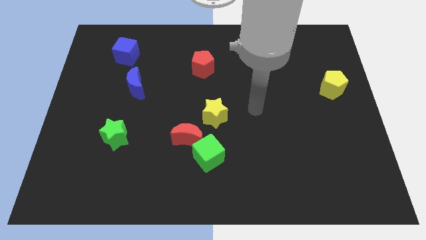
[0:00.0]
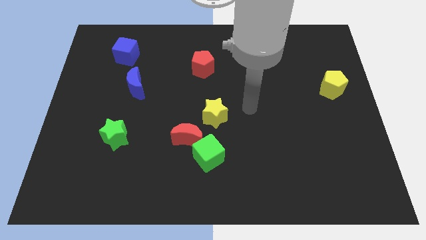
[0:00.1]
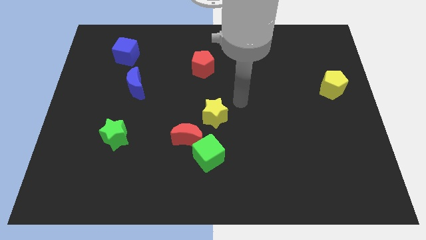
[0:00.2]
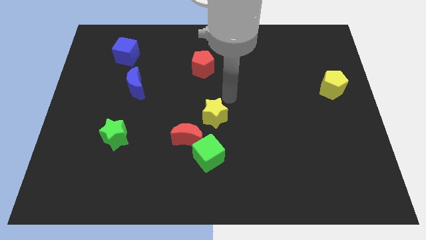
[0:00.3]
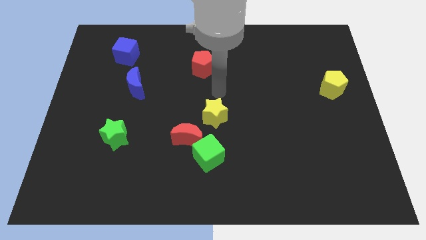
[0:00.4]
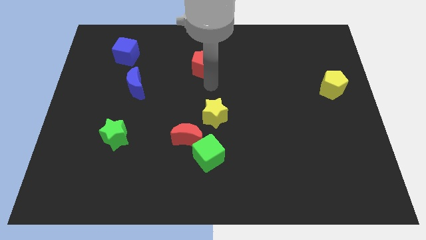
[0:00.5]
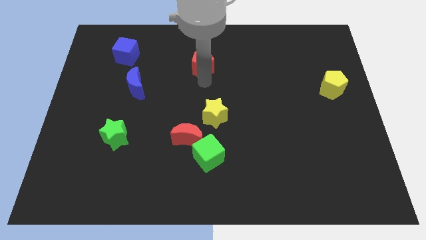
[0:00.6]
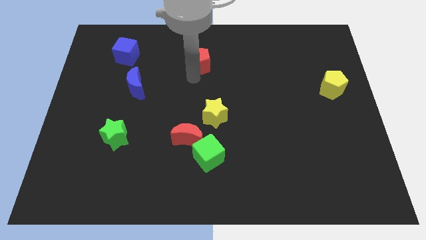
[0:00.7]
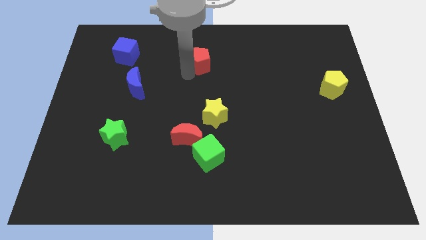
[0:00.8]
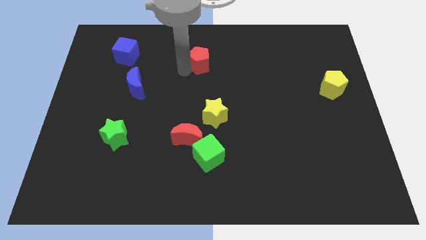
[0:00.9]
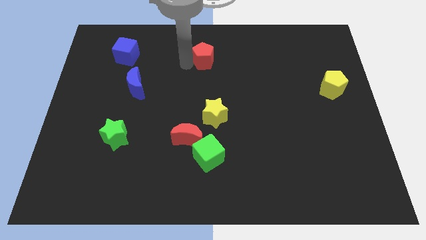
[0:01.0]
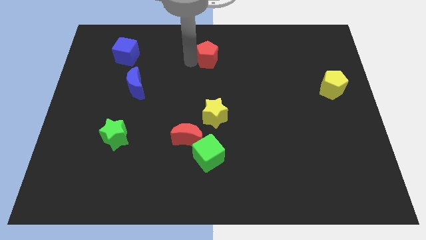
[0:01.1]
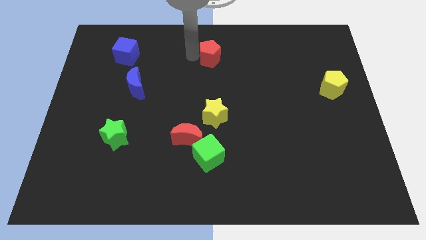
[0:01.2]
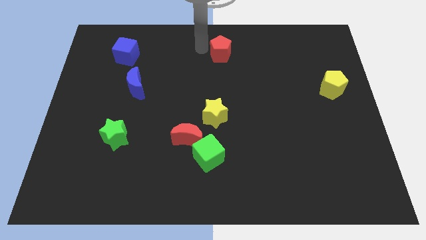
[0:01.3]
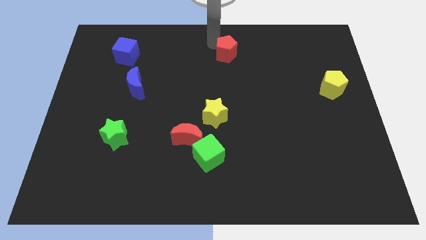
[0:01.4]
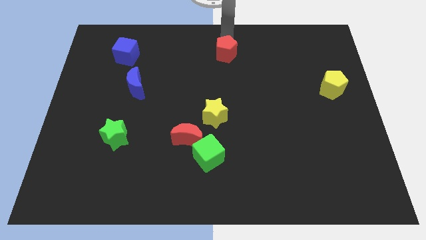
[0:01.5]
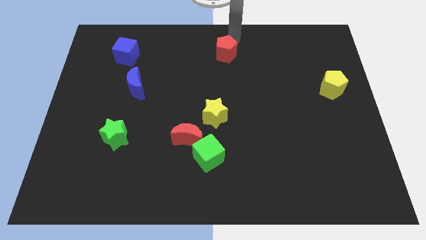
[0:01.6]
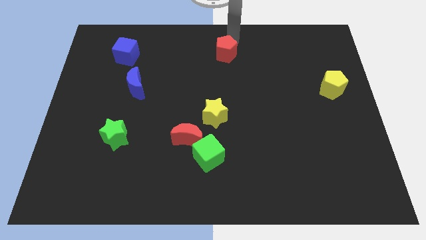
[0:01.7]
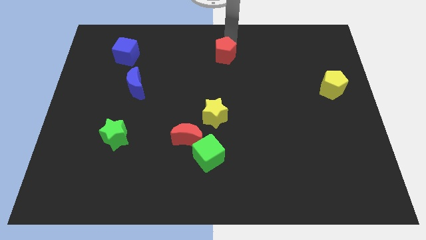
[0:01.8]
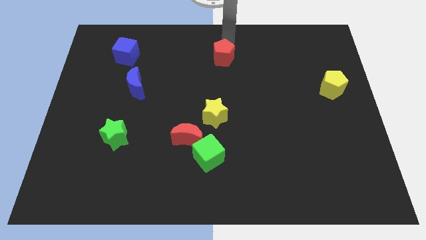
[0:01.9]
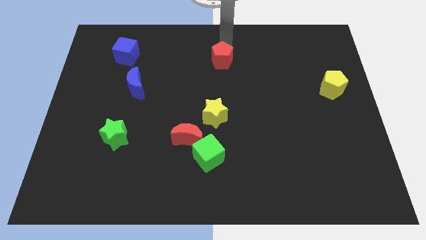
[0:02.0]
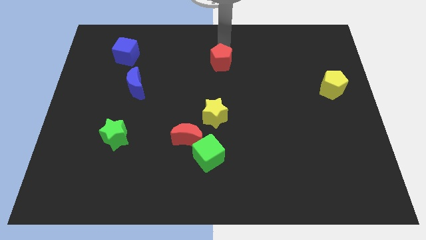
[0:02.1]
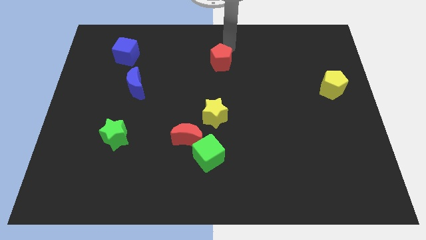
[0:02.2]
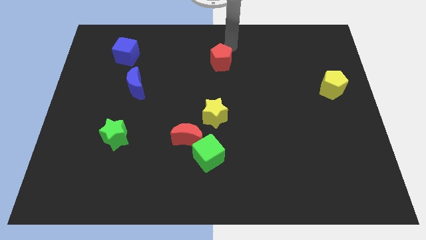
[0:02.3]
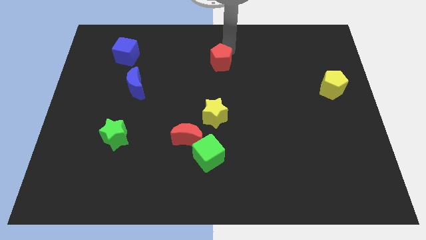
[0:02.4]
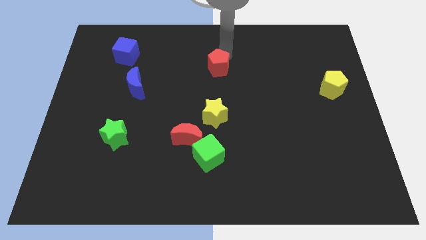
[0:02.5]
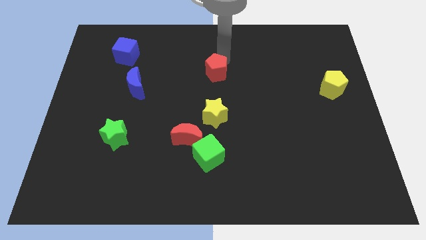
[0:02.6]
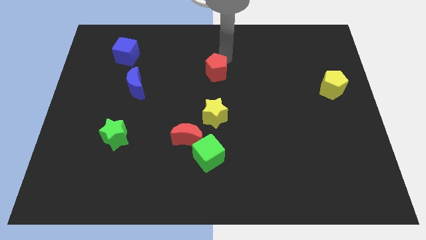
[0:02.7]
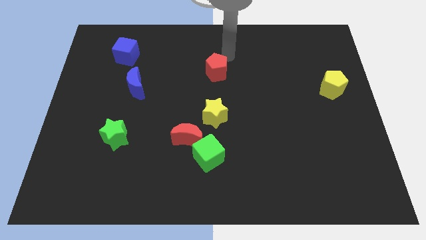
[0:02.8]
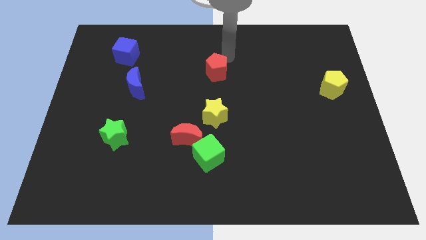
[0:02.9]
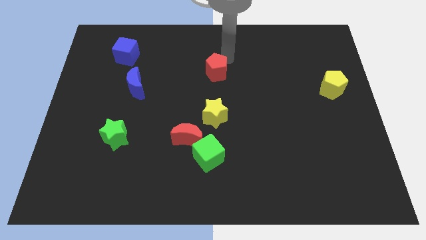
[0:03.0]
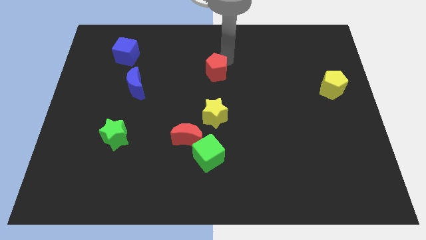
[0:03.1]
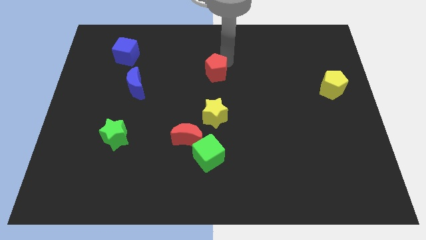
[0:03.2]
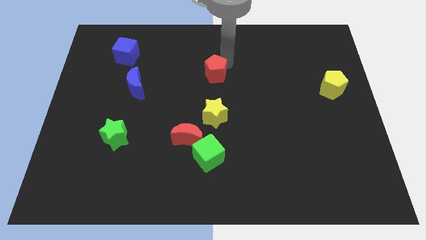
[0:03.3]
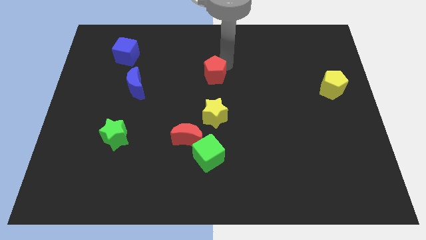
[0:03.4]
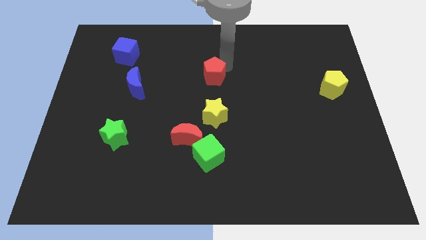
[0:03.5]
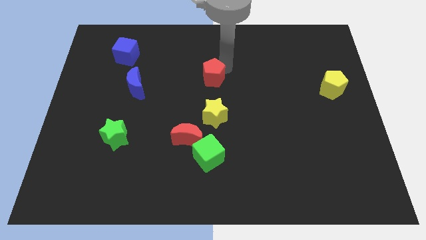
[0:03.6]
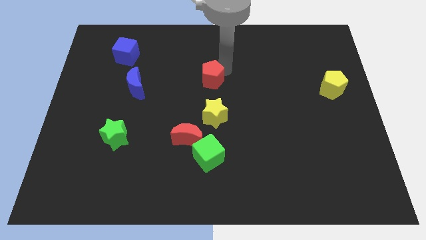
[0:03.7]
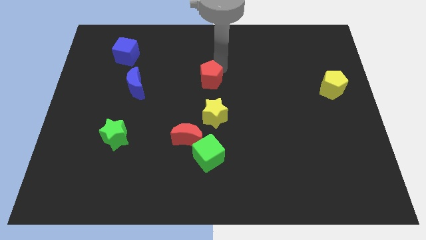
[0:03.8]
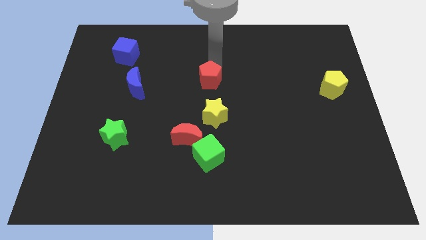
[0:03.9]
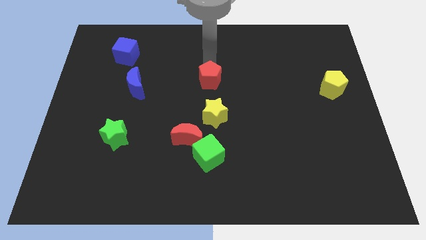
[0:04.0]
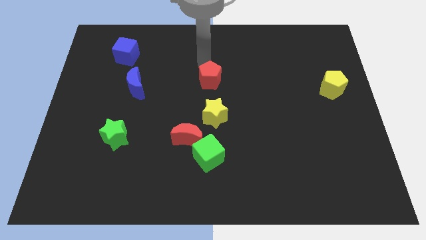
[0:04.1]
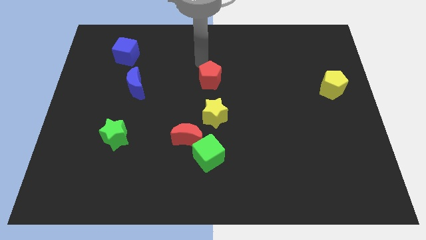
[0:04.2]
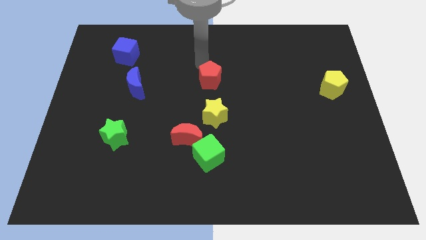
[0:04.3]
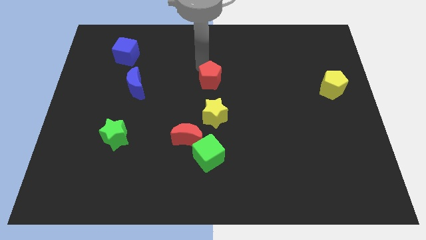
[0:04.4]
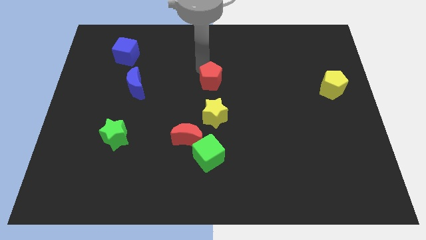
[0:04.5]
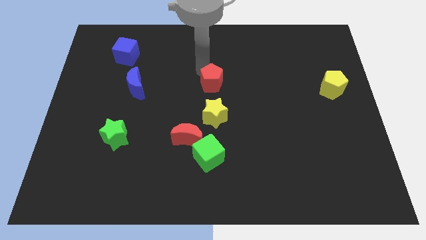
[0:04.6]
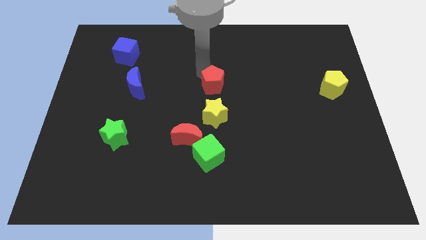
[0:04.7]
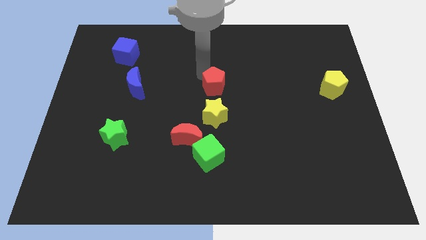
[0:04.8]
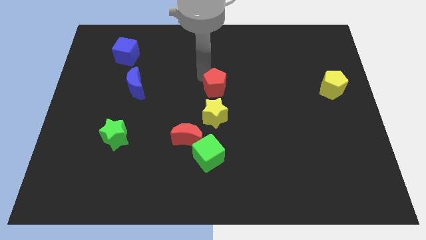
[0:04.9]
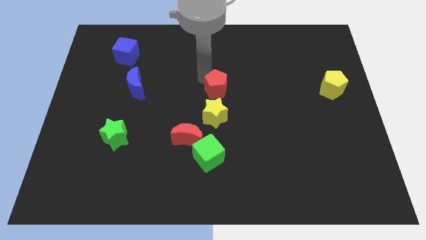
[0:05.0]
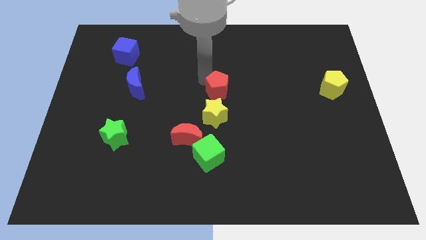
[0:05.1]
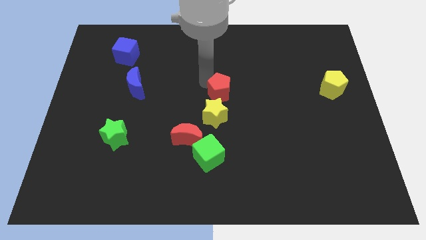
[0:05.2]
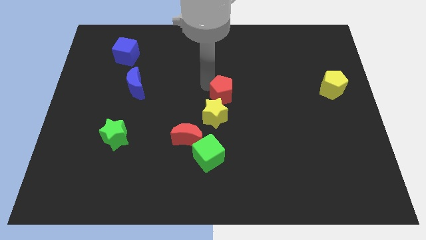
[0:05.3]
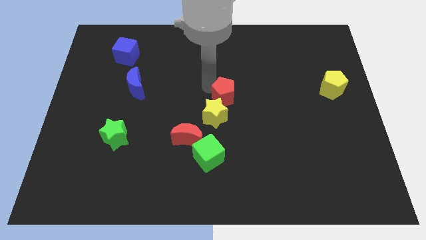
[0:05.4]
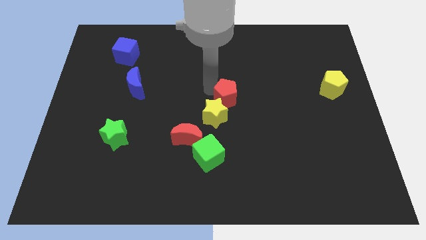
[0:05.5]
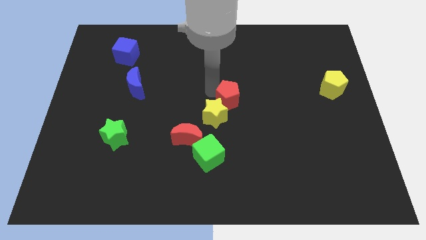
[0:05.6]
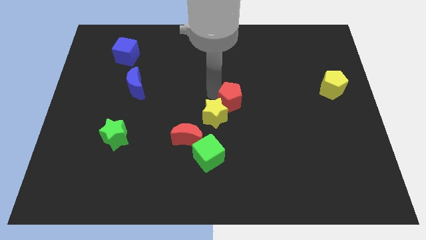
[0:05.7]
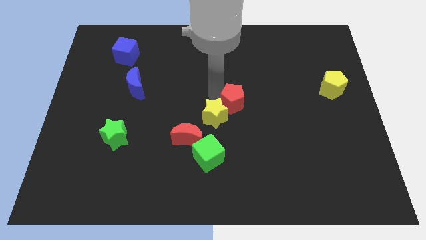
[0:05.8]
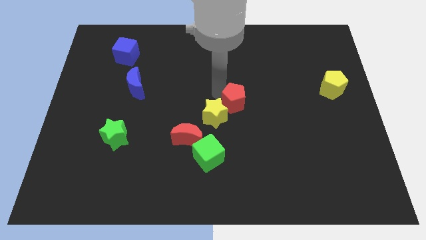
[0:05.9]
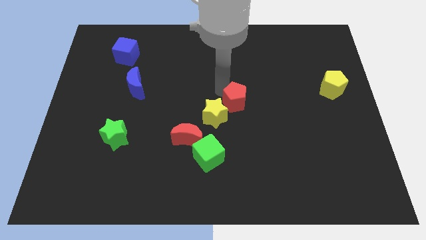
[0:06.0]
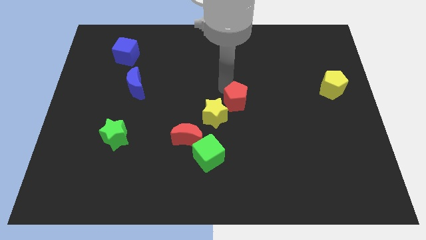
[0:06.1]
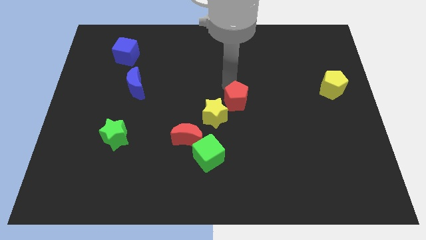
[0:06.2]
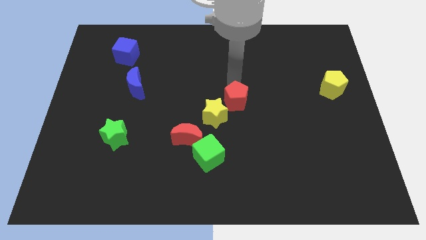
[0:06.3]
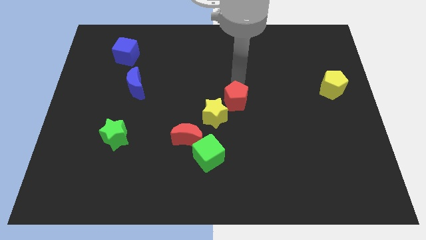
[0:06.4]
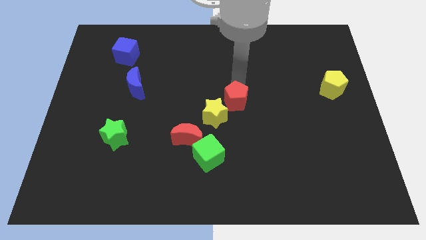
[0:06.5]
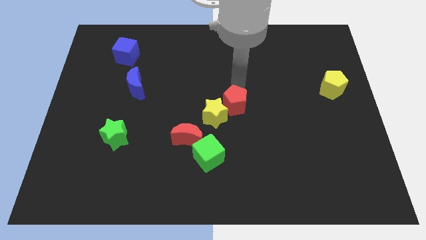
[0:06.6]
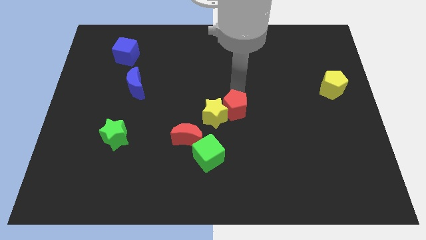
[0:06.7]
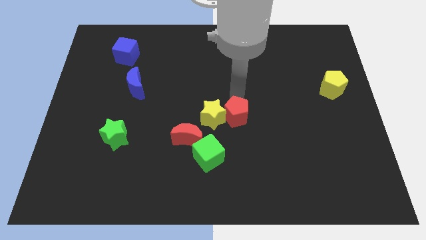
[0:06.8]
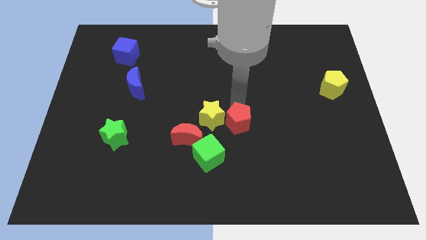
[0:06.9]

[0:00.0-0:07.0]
push the red pentagon to the top right side of the green cube
